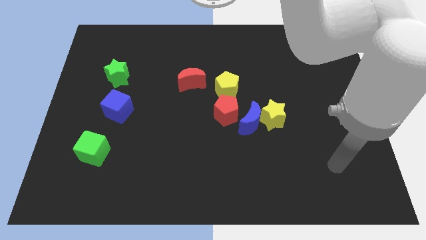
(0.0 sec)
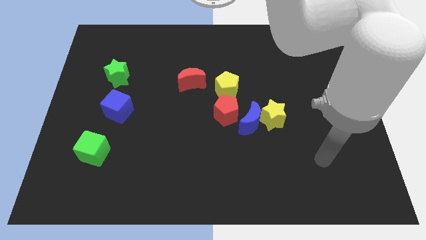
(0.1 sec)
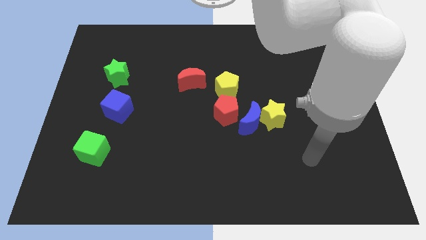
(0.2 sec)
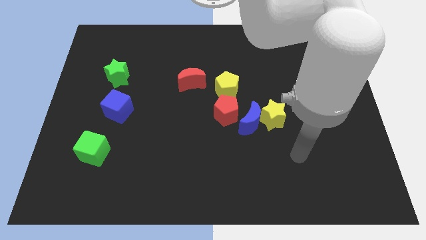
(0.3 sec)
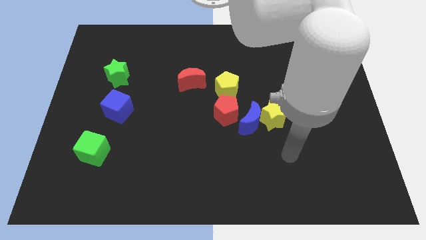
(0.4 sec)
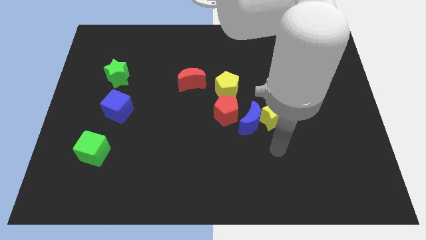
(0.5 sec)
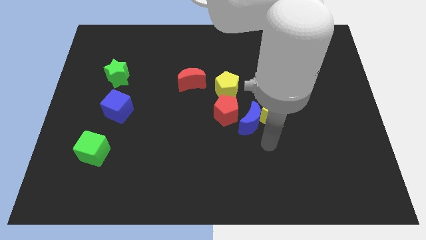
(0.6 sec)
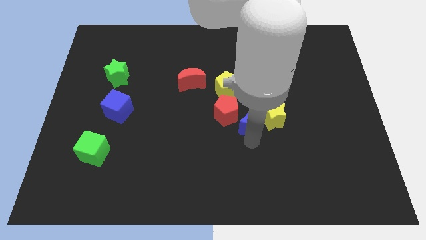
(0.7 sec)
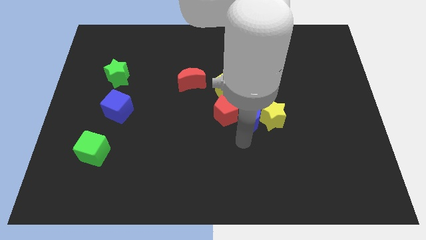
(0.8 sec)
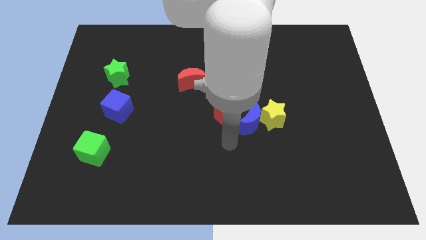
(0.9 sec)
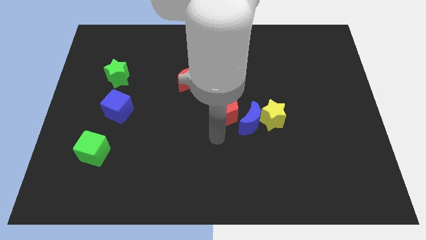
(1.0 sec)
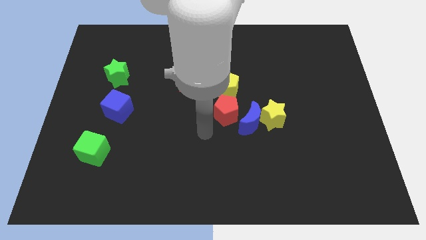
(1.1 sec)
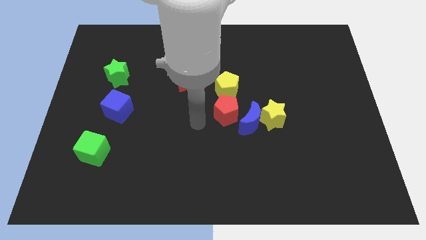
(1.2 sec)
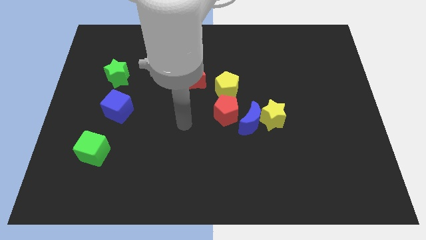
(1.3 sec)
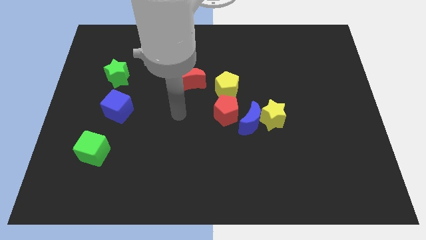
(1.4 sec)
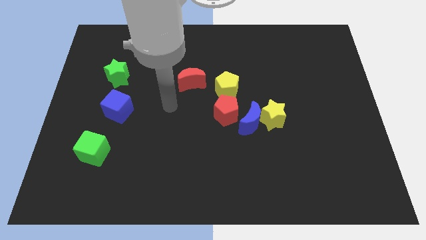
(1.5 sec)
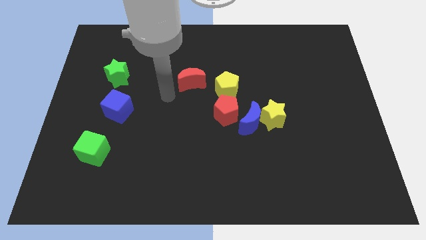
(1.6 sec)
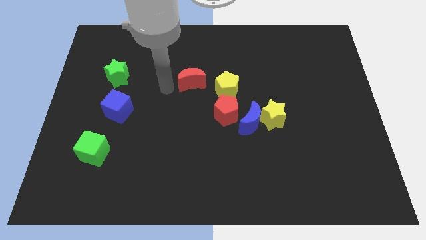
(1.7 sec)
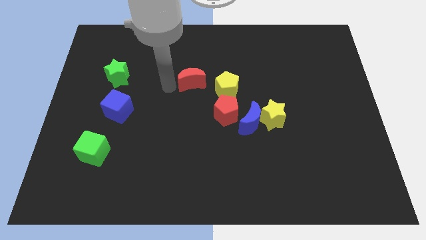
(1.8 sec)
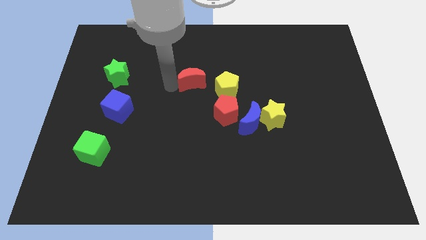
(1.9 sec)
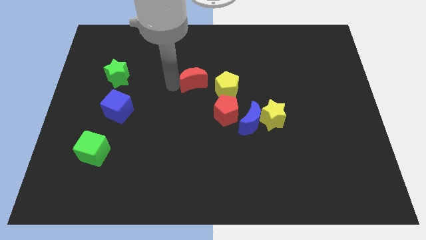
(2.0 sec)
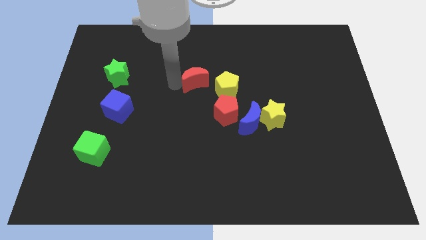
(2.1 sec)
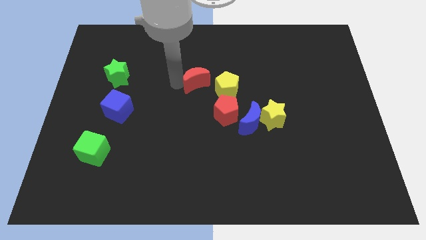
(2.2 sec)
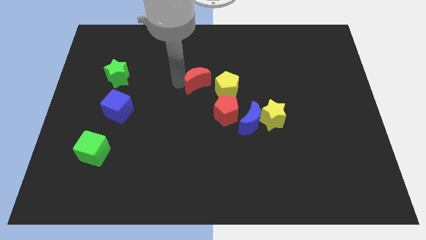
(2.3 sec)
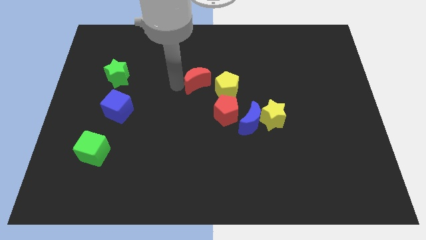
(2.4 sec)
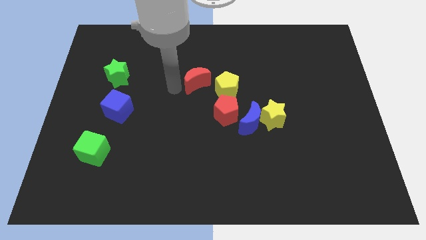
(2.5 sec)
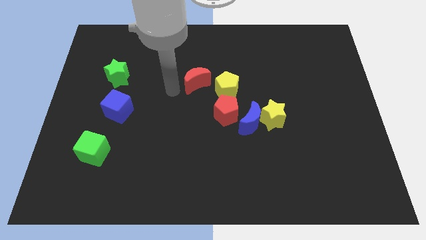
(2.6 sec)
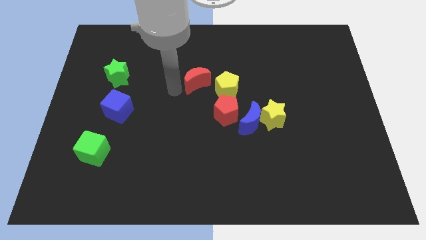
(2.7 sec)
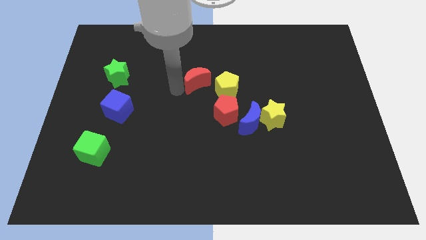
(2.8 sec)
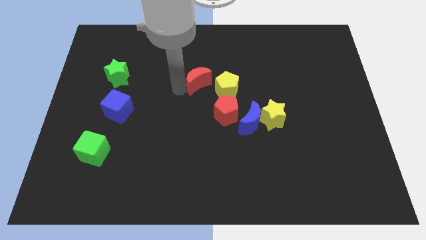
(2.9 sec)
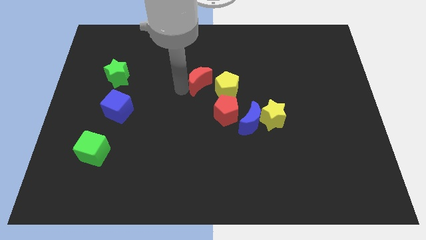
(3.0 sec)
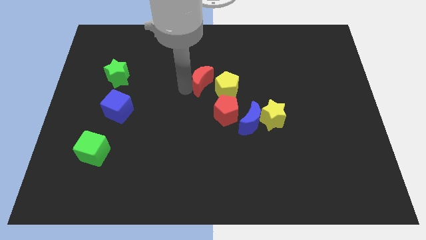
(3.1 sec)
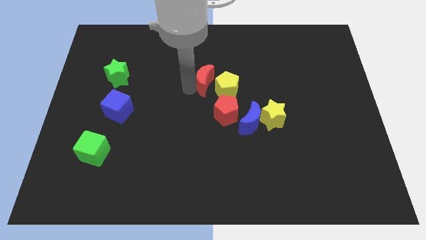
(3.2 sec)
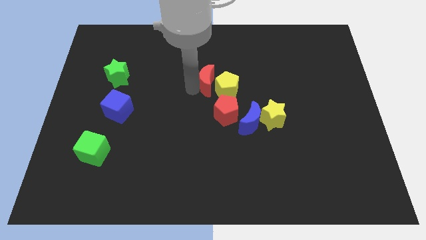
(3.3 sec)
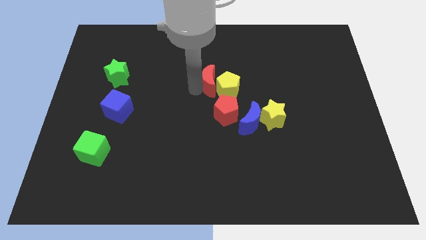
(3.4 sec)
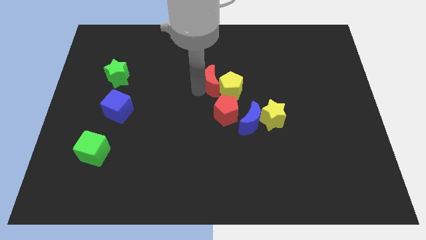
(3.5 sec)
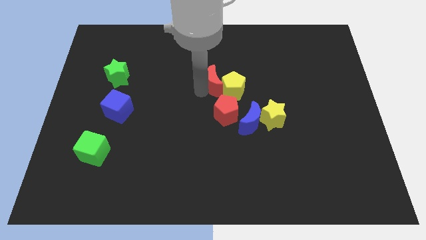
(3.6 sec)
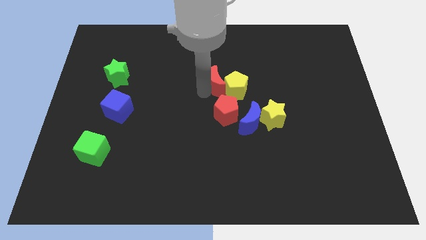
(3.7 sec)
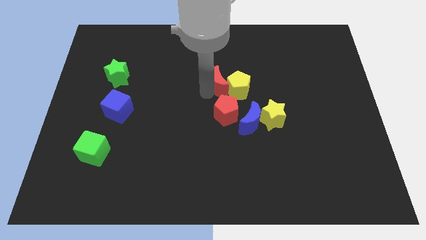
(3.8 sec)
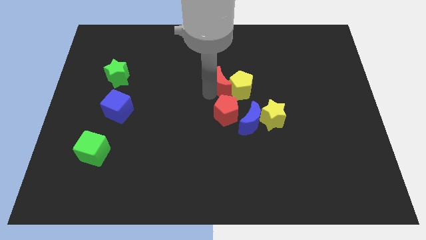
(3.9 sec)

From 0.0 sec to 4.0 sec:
slide the red moon somewhat to the right

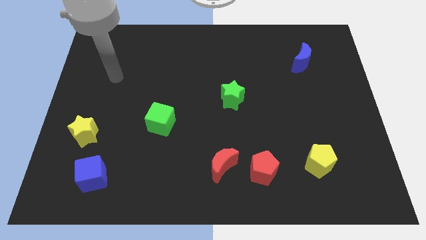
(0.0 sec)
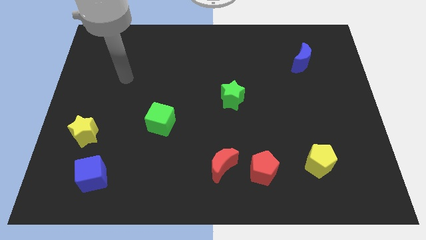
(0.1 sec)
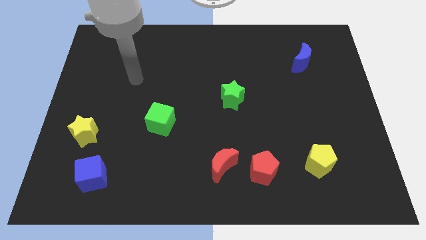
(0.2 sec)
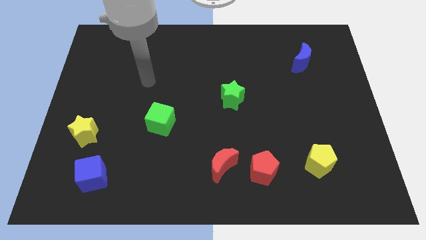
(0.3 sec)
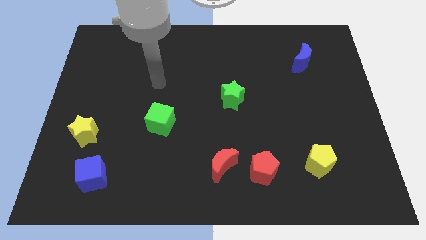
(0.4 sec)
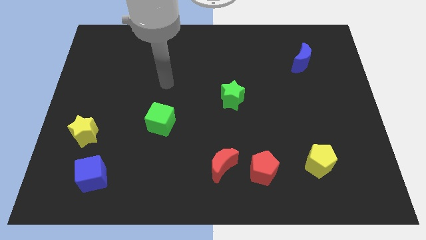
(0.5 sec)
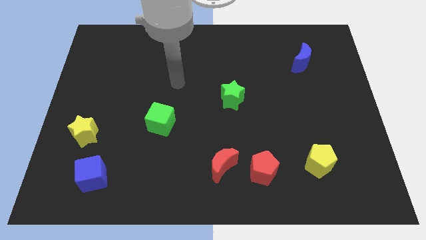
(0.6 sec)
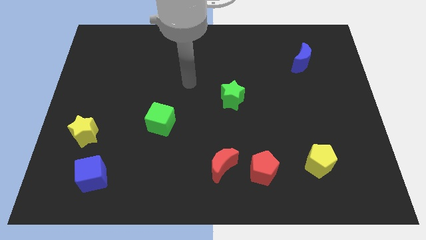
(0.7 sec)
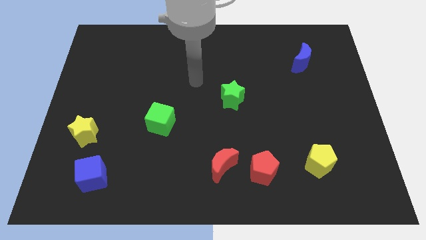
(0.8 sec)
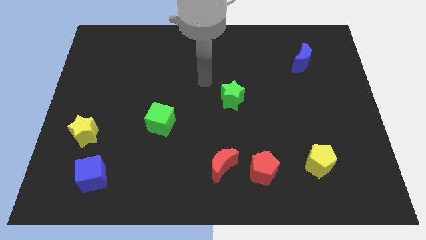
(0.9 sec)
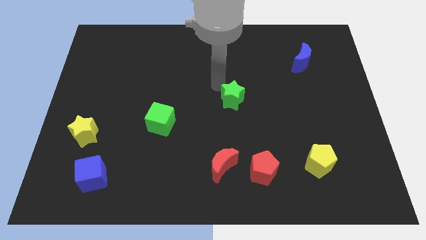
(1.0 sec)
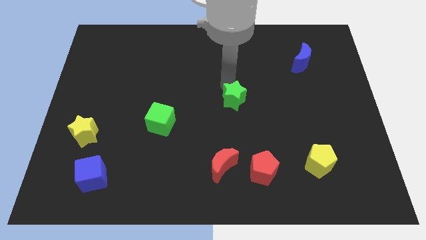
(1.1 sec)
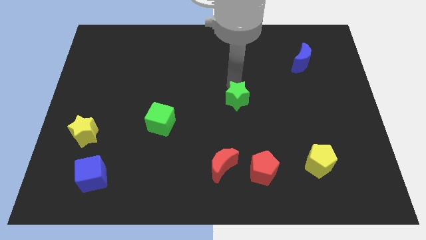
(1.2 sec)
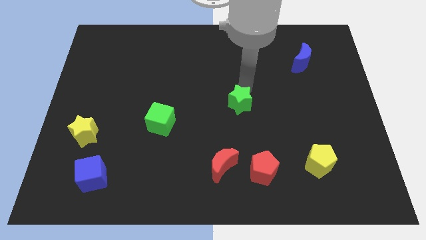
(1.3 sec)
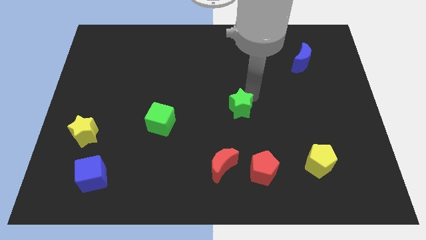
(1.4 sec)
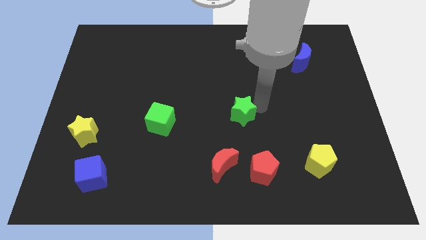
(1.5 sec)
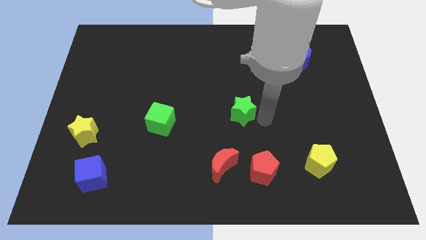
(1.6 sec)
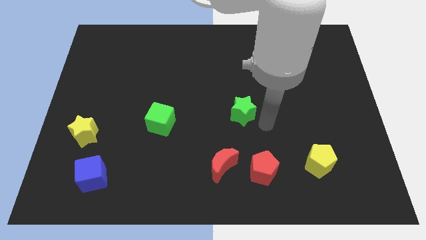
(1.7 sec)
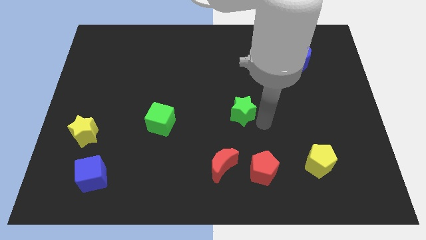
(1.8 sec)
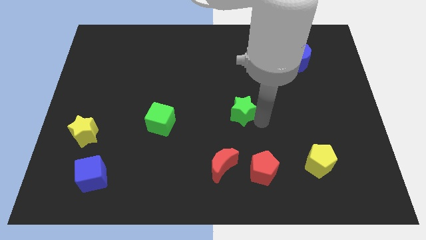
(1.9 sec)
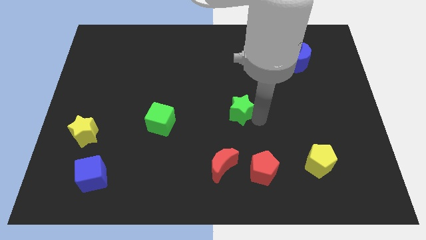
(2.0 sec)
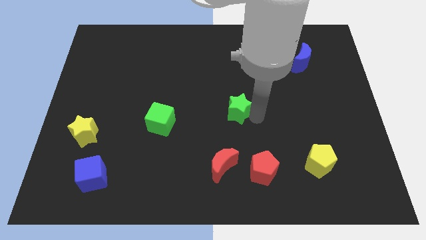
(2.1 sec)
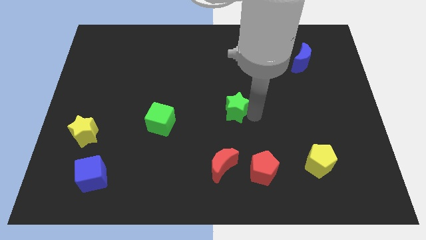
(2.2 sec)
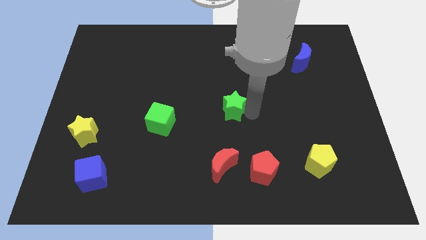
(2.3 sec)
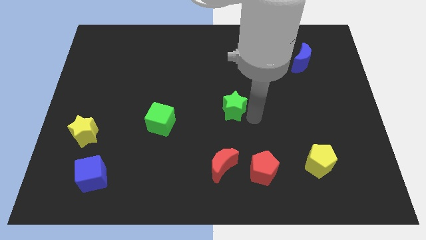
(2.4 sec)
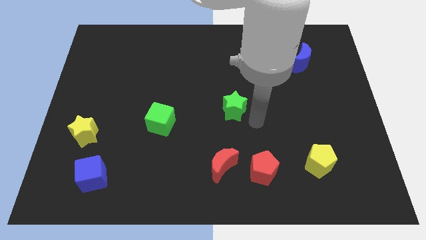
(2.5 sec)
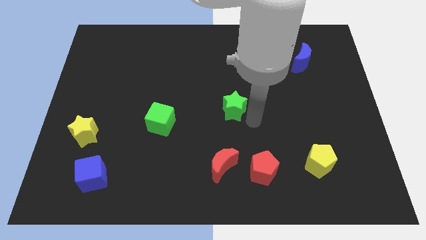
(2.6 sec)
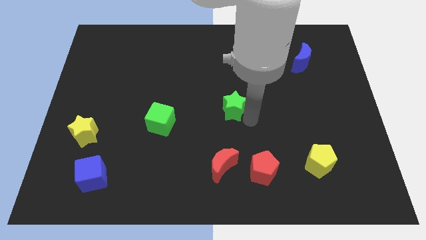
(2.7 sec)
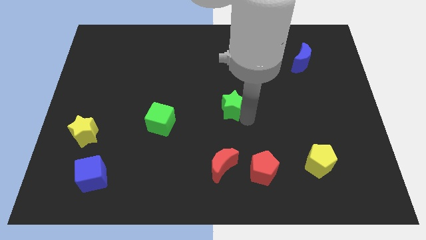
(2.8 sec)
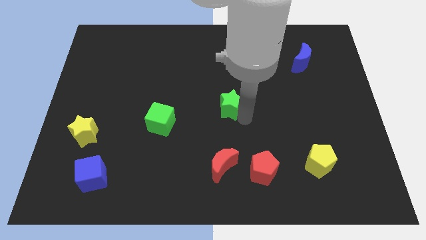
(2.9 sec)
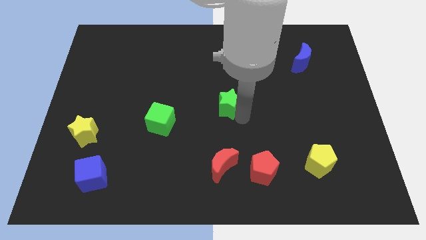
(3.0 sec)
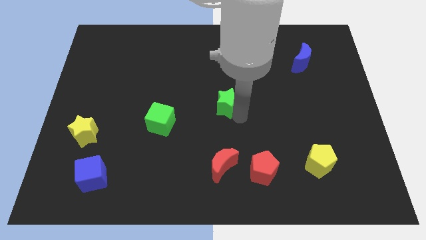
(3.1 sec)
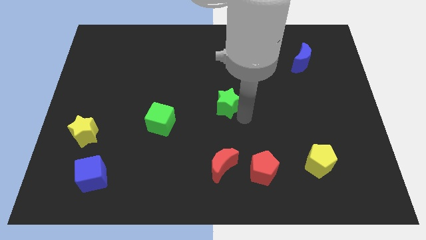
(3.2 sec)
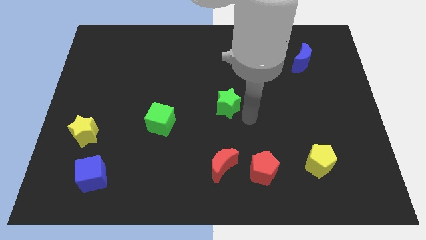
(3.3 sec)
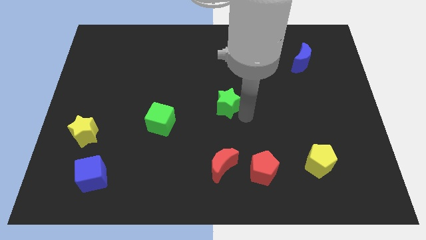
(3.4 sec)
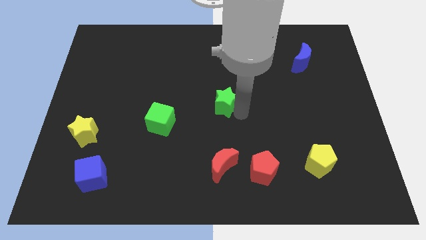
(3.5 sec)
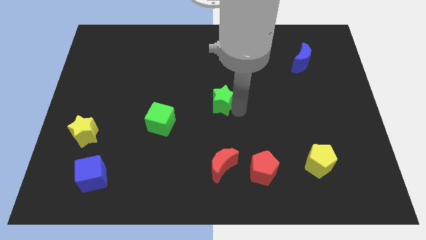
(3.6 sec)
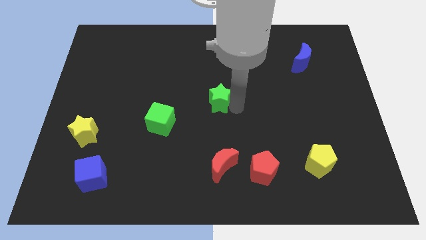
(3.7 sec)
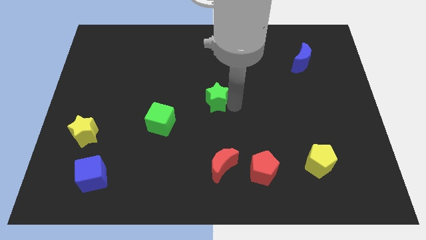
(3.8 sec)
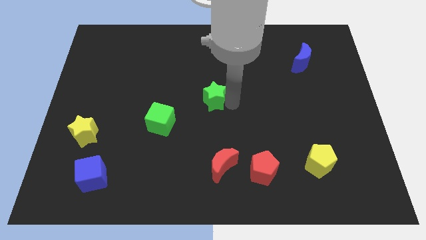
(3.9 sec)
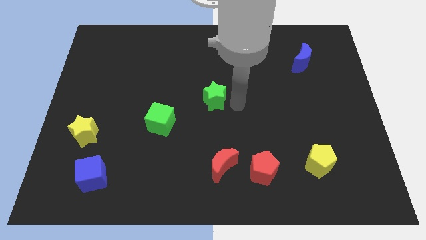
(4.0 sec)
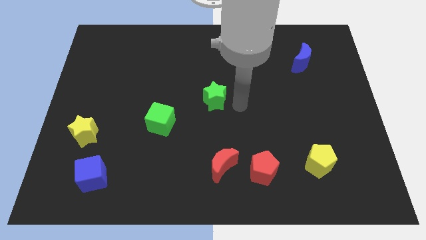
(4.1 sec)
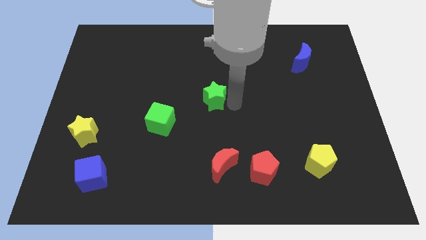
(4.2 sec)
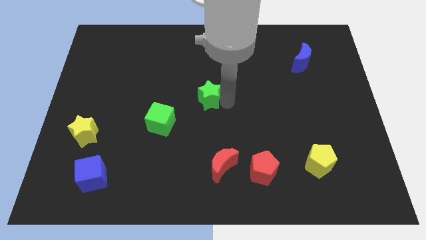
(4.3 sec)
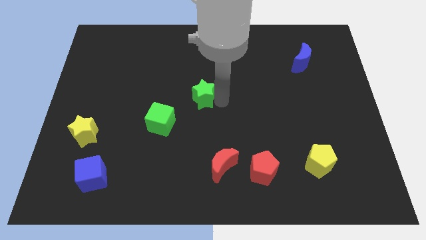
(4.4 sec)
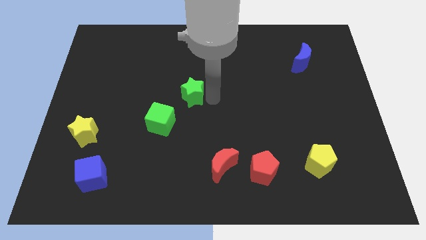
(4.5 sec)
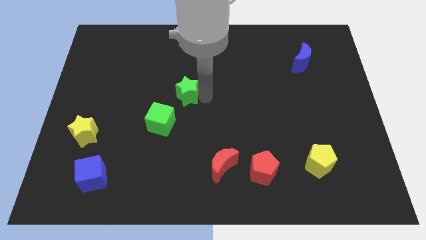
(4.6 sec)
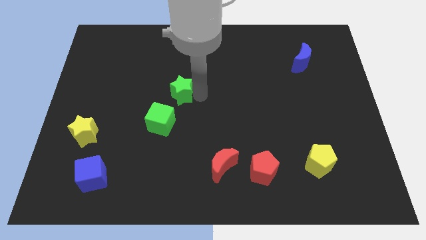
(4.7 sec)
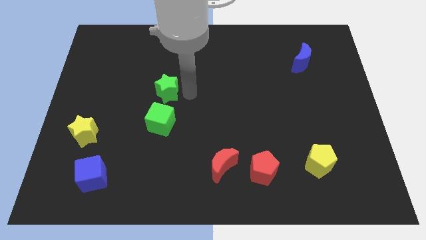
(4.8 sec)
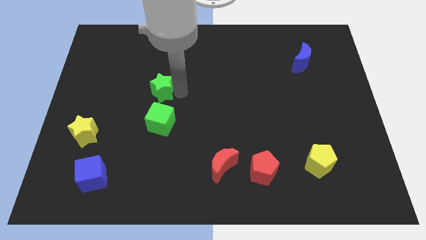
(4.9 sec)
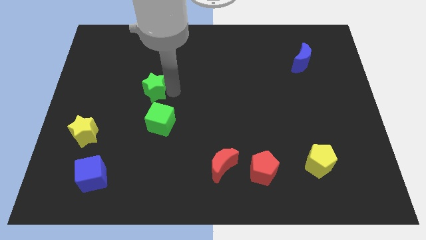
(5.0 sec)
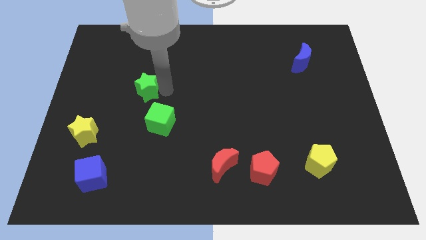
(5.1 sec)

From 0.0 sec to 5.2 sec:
push the green star to the left
